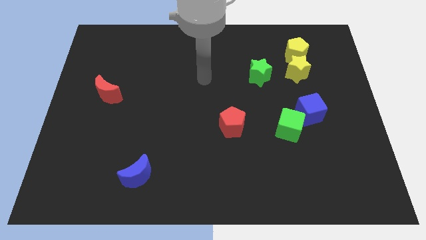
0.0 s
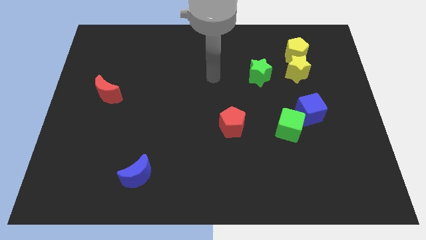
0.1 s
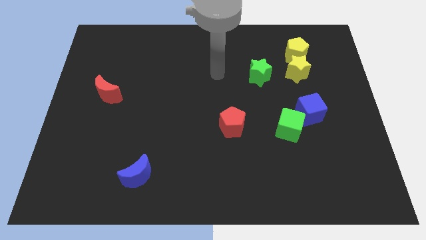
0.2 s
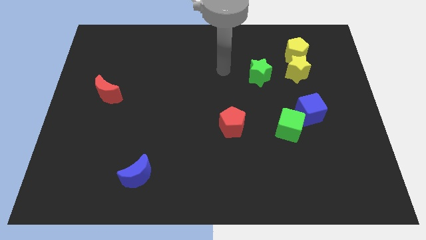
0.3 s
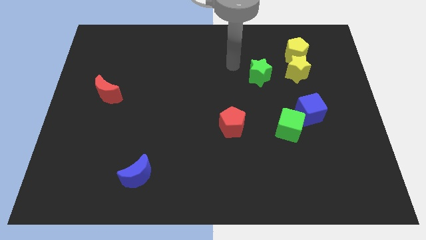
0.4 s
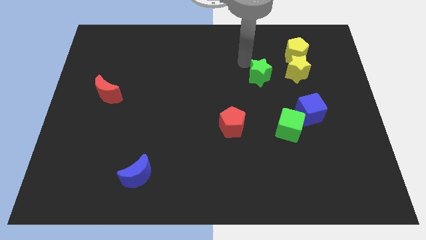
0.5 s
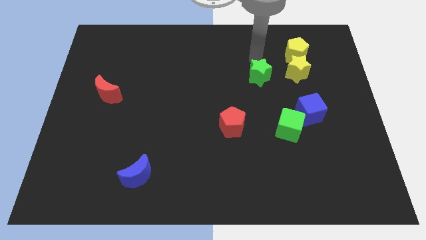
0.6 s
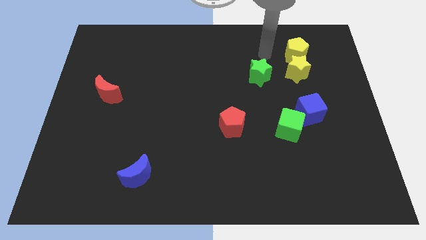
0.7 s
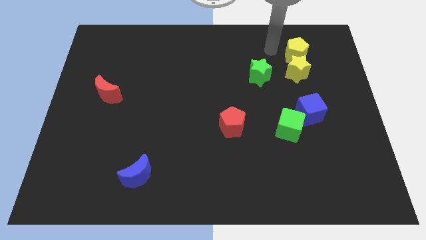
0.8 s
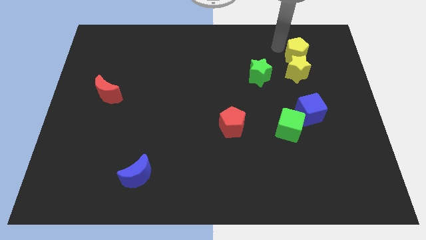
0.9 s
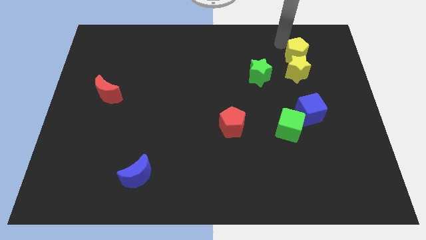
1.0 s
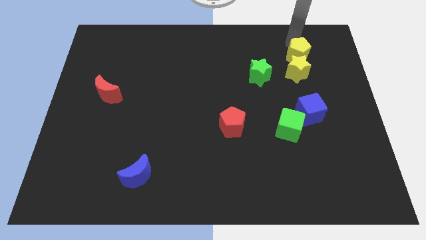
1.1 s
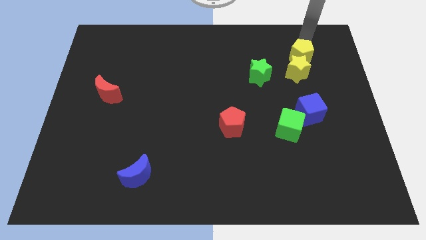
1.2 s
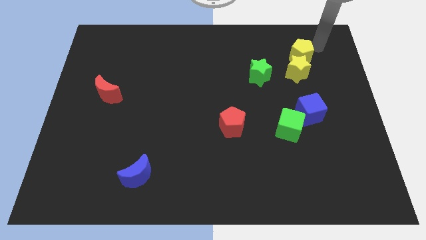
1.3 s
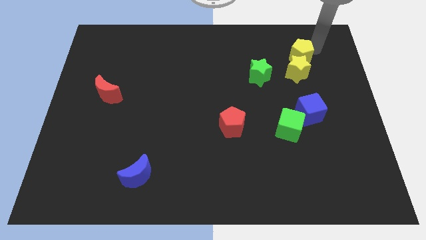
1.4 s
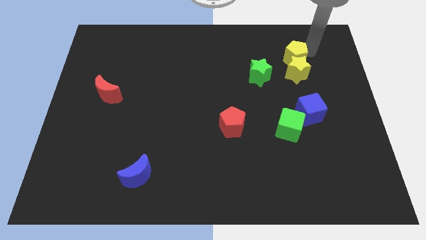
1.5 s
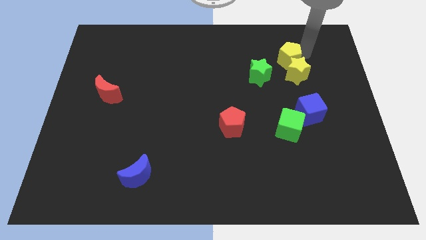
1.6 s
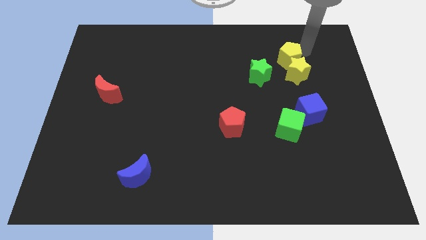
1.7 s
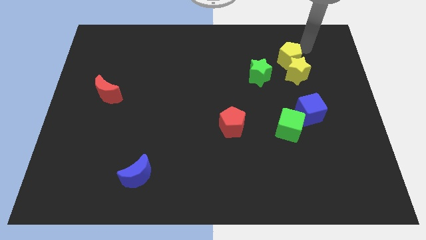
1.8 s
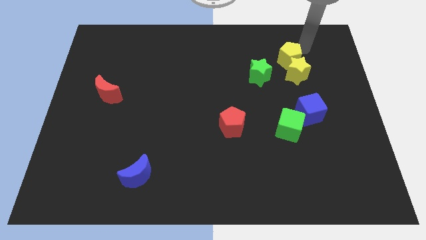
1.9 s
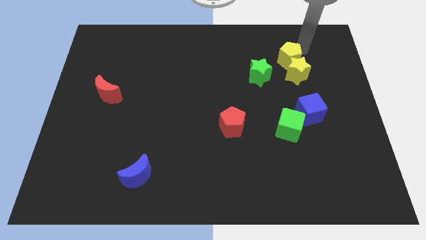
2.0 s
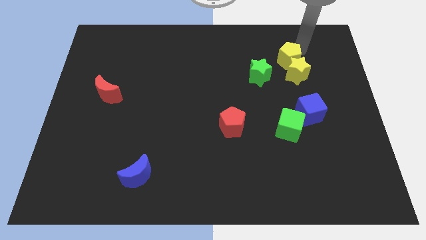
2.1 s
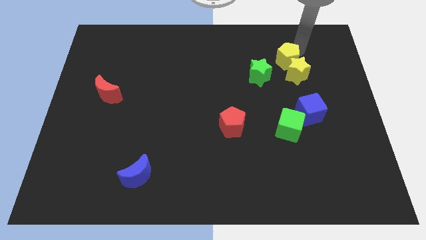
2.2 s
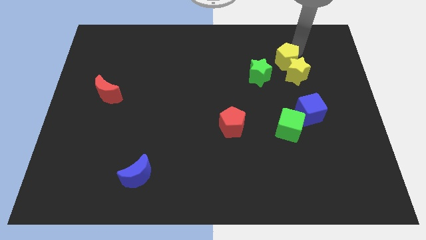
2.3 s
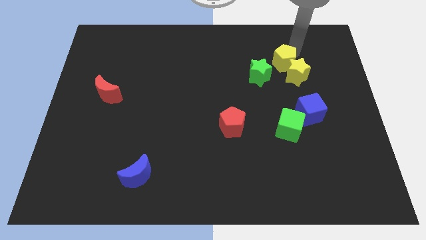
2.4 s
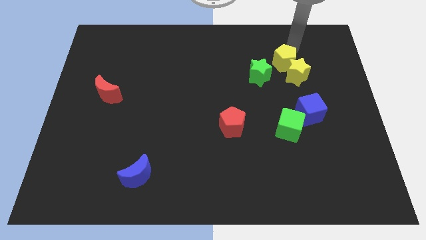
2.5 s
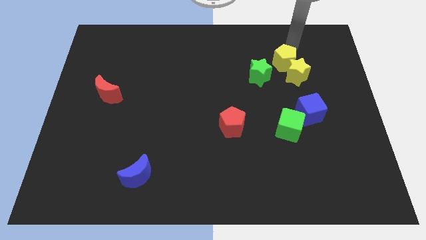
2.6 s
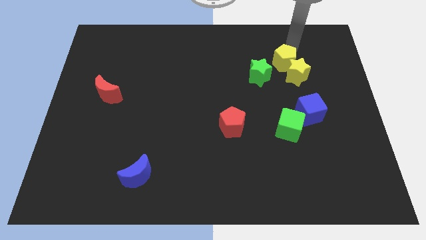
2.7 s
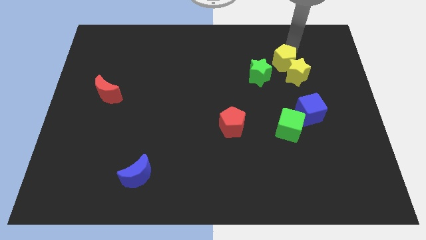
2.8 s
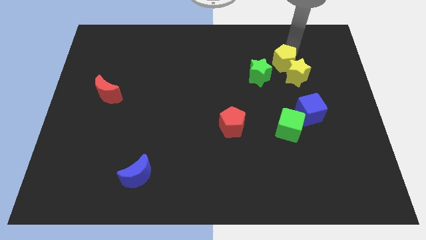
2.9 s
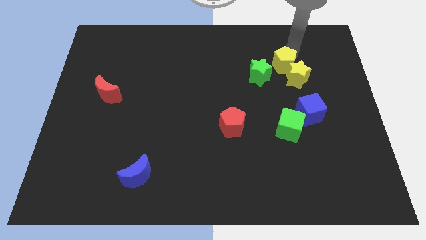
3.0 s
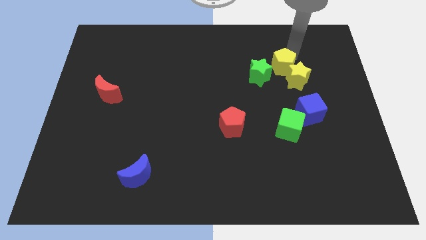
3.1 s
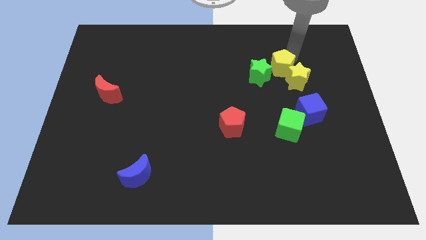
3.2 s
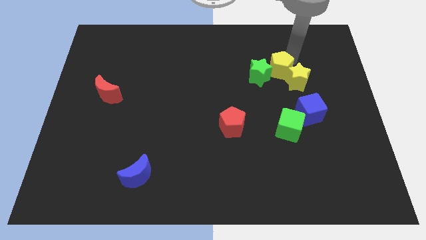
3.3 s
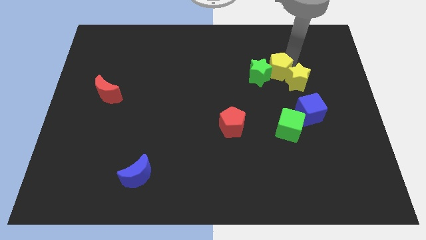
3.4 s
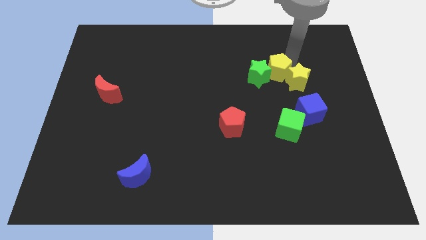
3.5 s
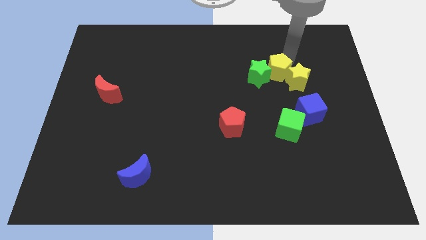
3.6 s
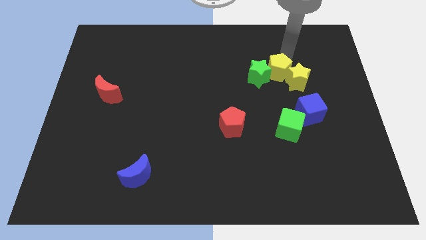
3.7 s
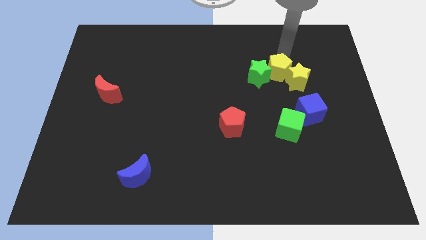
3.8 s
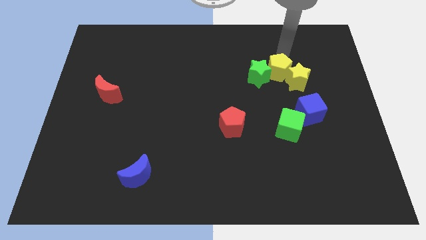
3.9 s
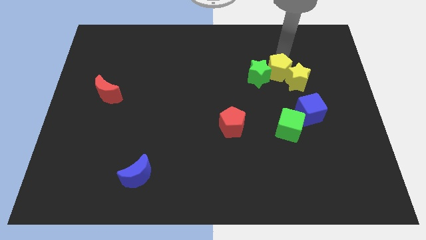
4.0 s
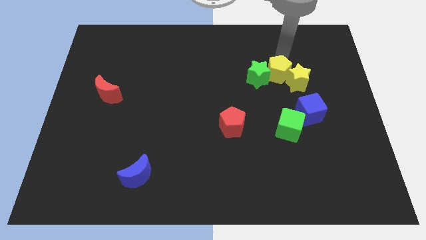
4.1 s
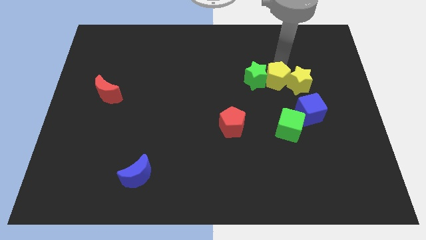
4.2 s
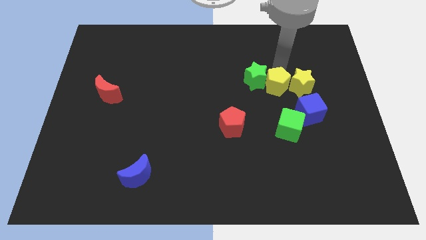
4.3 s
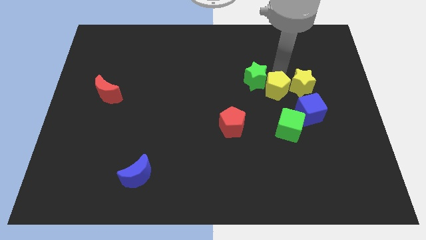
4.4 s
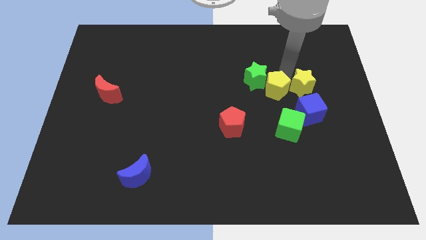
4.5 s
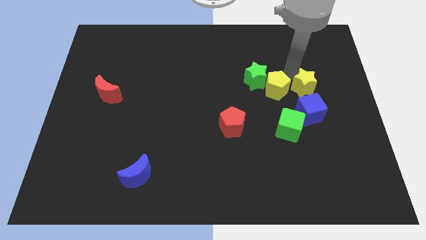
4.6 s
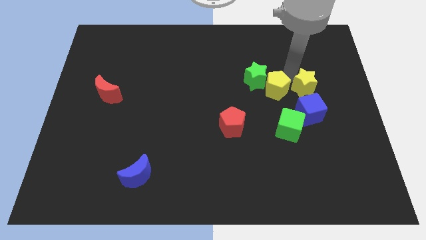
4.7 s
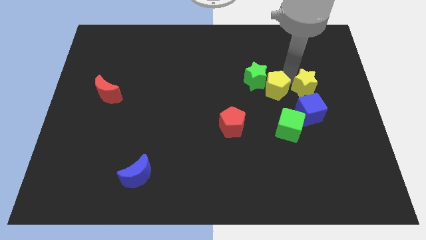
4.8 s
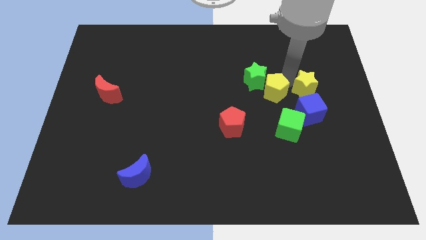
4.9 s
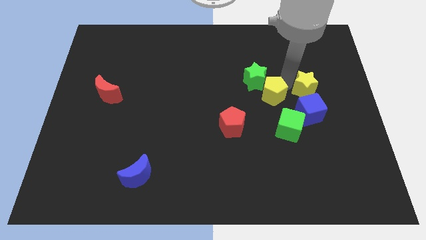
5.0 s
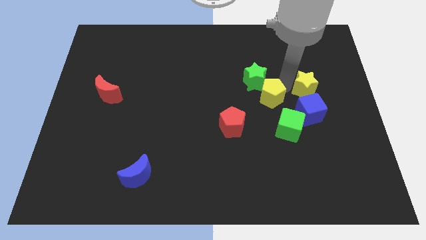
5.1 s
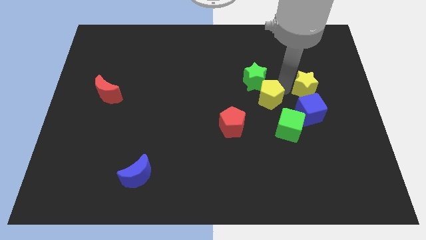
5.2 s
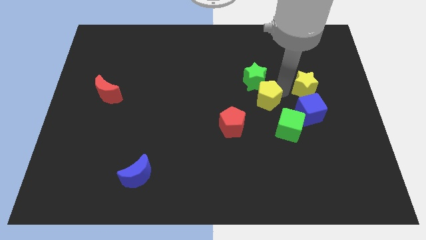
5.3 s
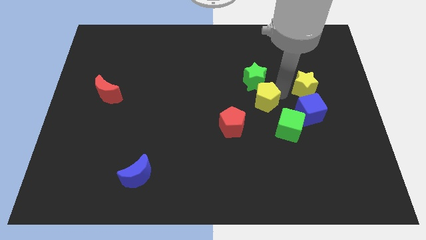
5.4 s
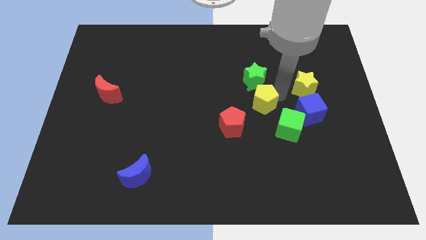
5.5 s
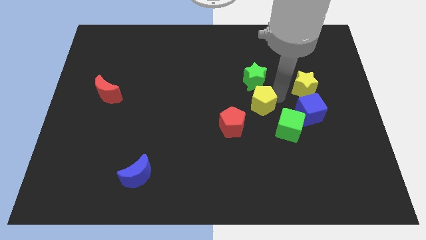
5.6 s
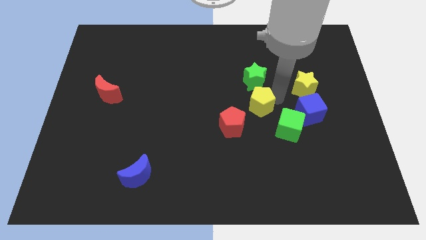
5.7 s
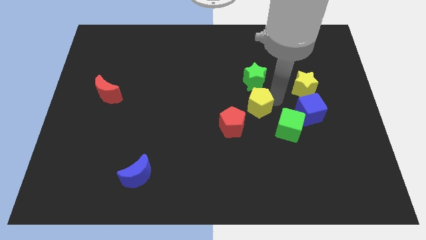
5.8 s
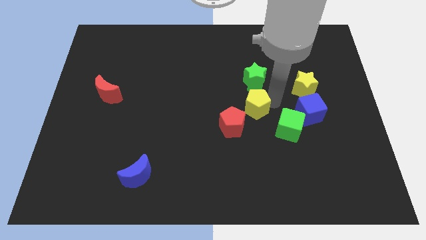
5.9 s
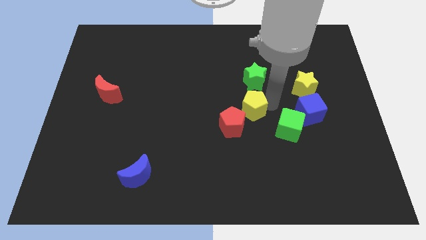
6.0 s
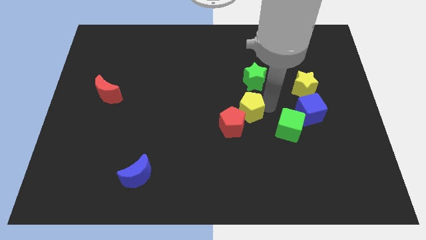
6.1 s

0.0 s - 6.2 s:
put the yellow pentagon towards the red pentagon

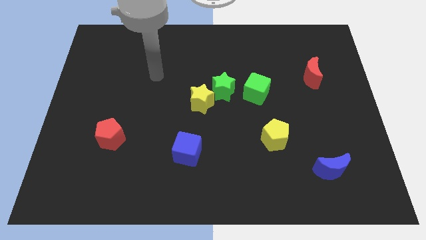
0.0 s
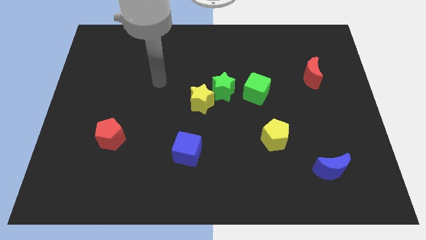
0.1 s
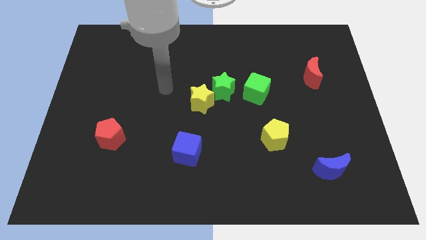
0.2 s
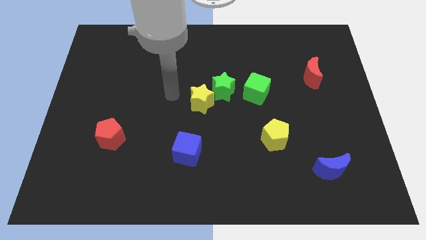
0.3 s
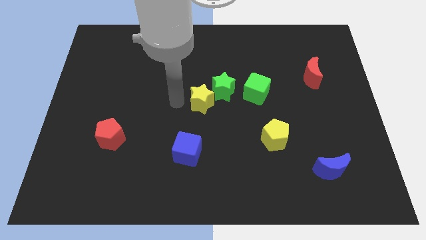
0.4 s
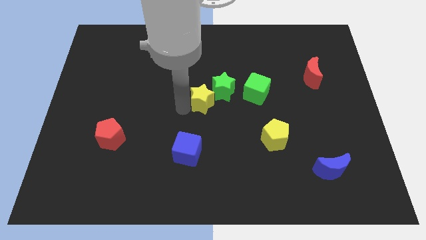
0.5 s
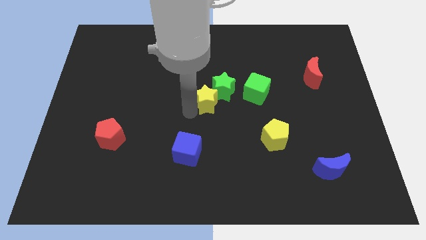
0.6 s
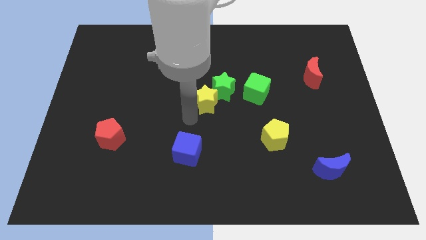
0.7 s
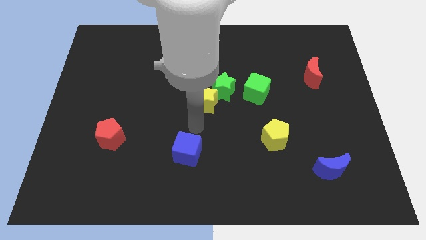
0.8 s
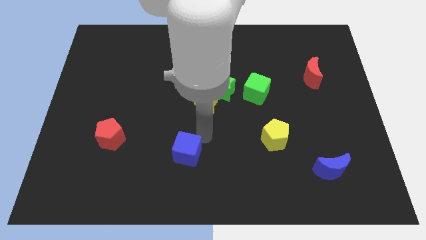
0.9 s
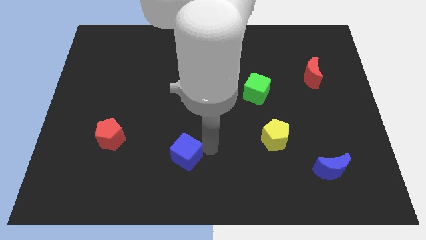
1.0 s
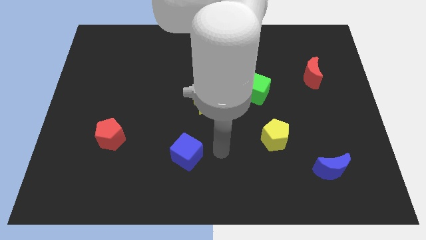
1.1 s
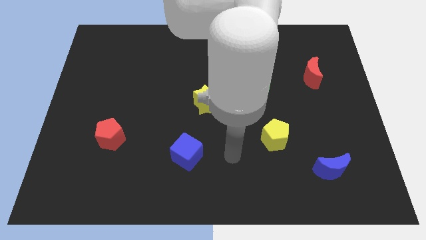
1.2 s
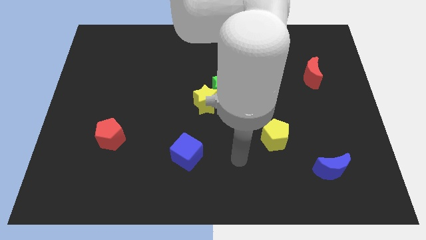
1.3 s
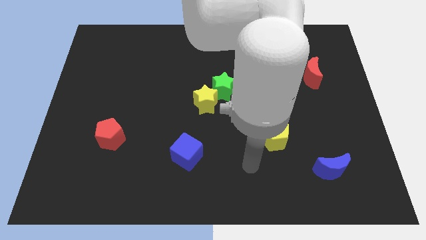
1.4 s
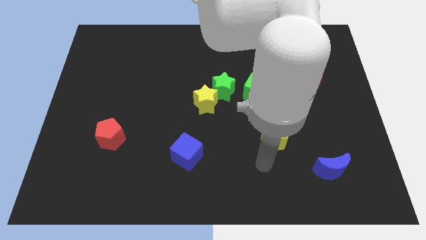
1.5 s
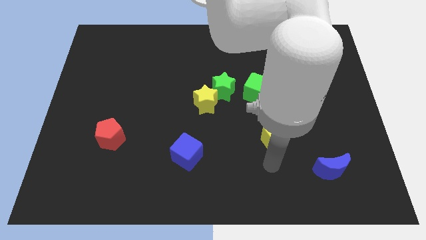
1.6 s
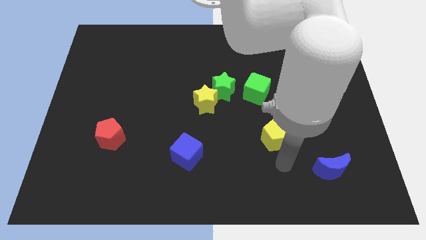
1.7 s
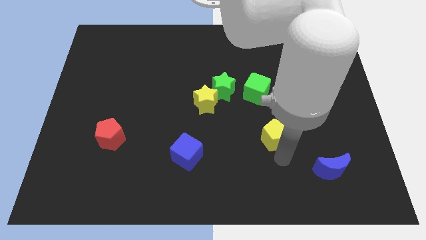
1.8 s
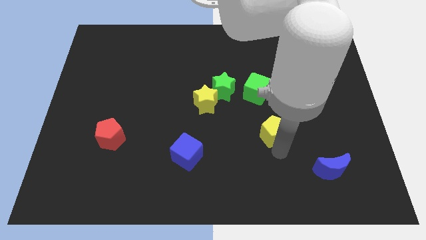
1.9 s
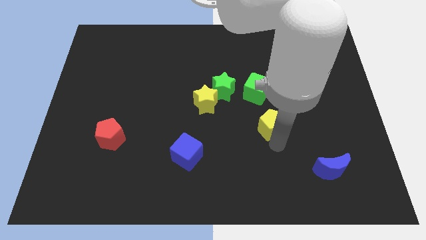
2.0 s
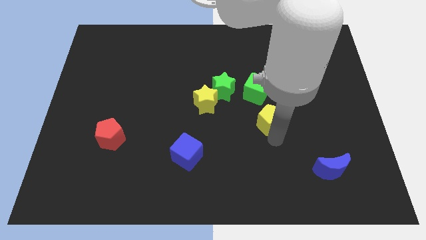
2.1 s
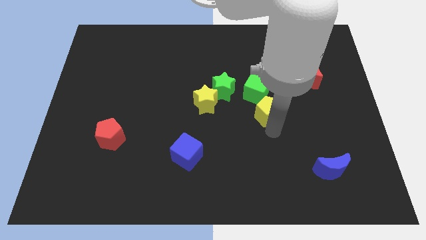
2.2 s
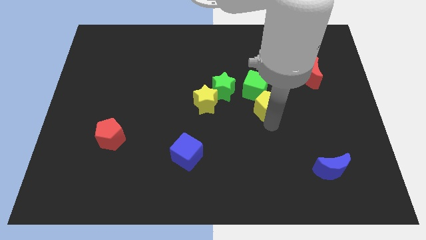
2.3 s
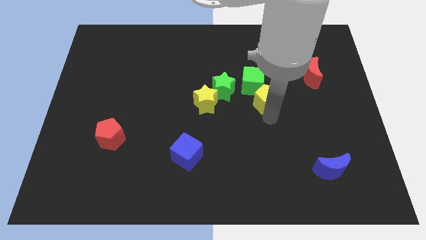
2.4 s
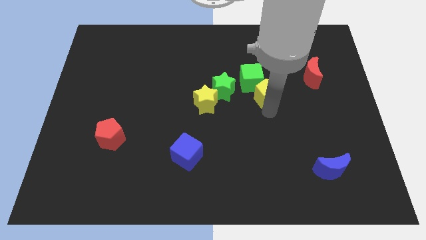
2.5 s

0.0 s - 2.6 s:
push the yellow pentagon towards the green cube
